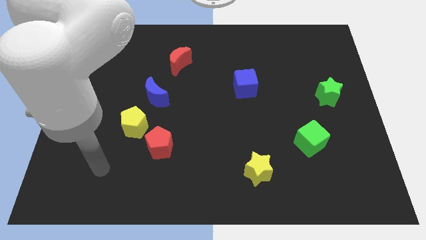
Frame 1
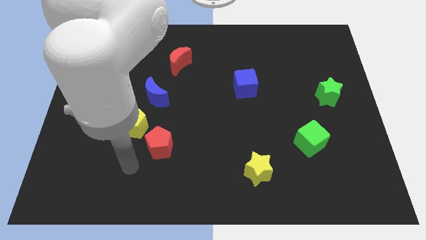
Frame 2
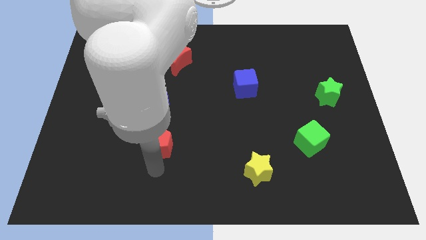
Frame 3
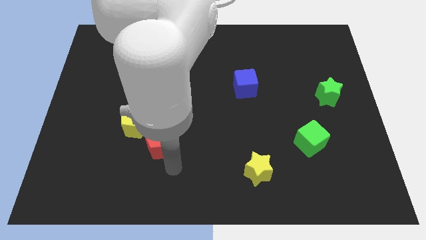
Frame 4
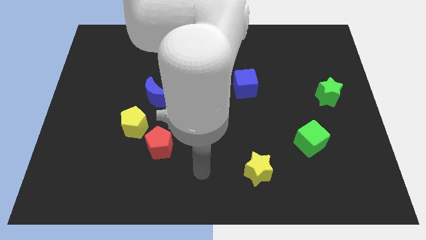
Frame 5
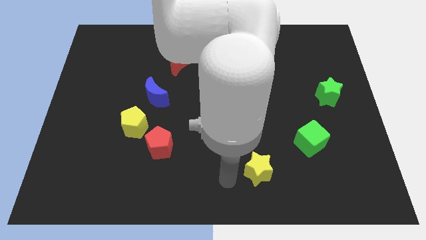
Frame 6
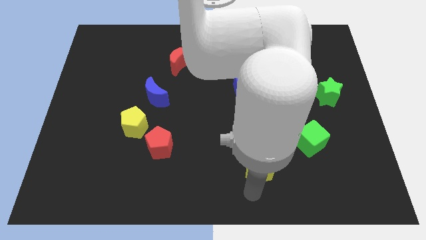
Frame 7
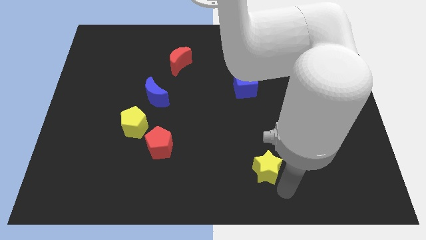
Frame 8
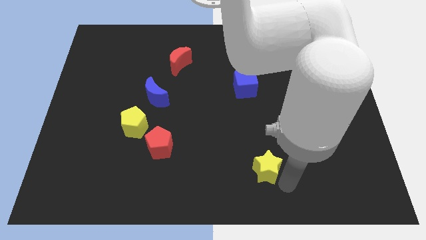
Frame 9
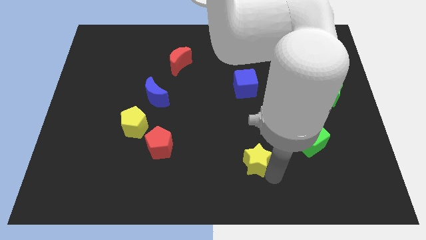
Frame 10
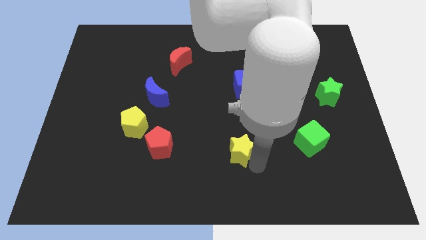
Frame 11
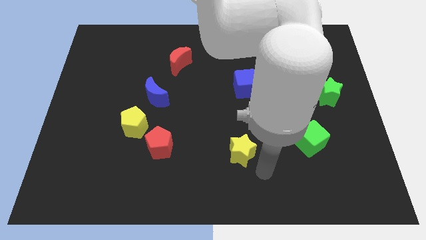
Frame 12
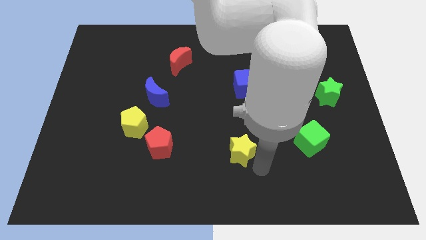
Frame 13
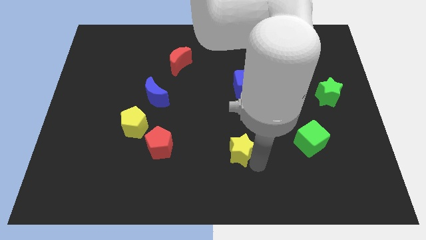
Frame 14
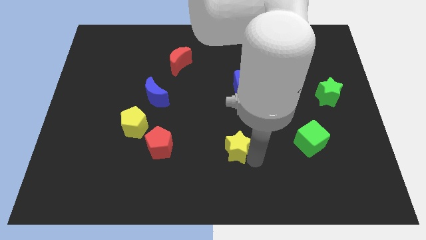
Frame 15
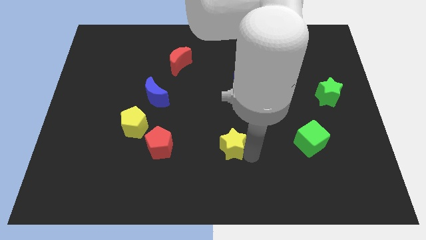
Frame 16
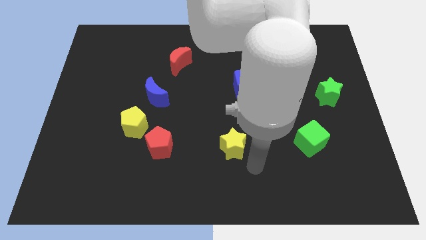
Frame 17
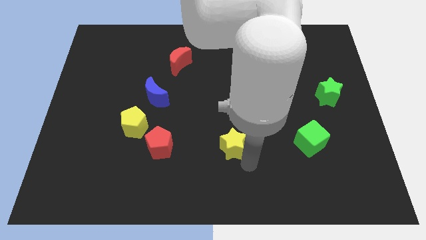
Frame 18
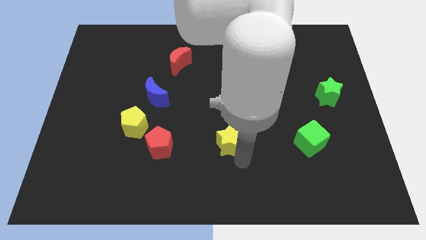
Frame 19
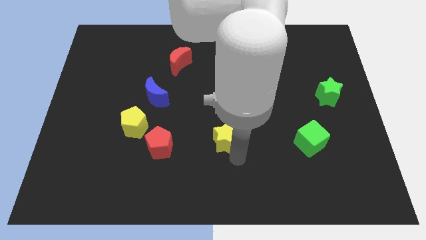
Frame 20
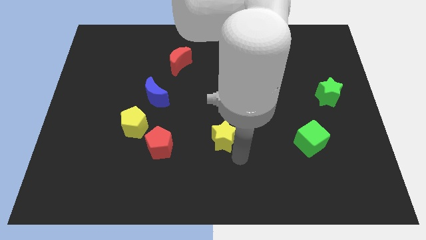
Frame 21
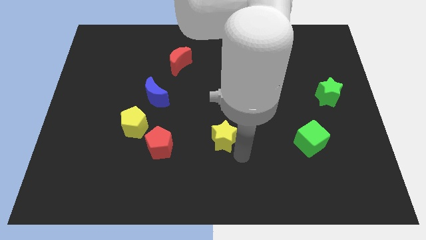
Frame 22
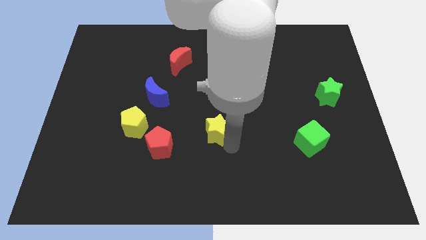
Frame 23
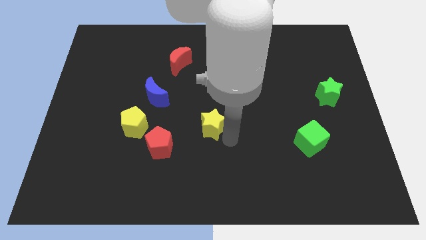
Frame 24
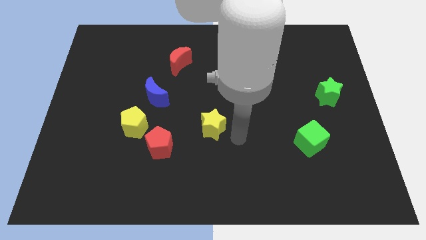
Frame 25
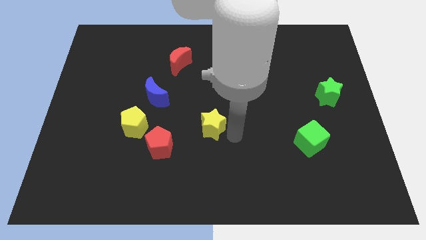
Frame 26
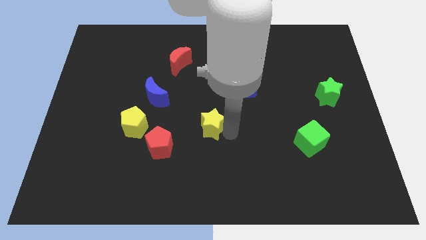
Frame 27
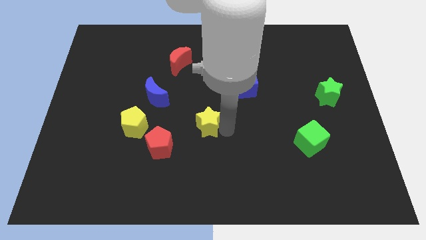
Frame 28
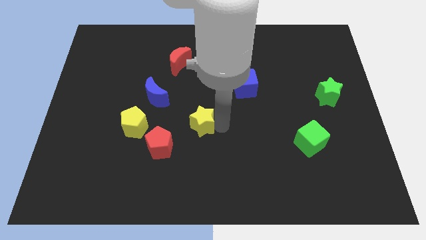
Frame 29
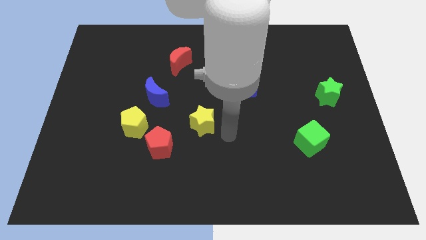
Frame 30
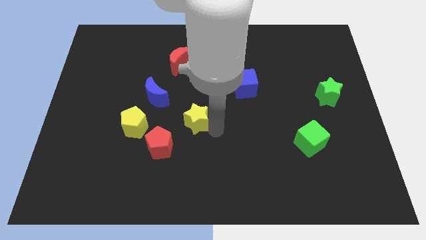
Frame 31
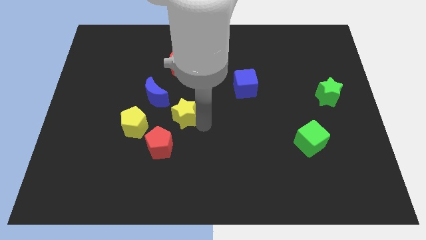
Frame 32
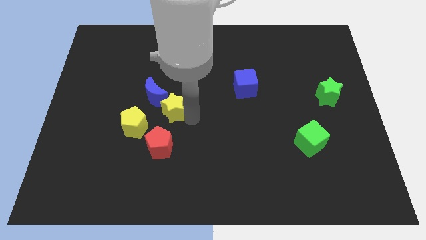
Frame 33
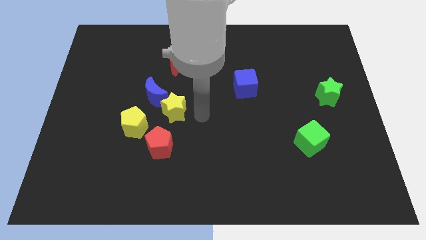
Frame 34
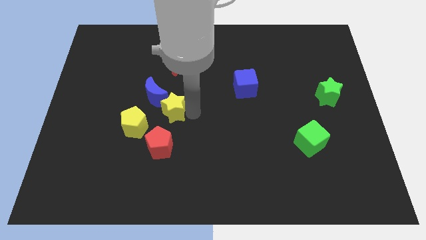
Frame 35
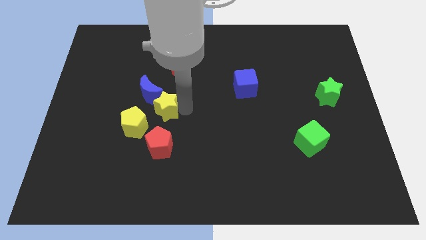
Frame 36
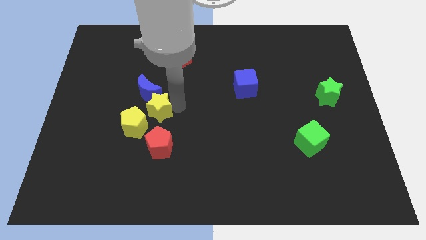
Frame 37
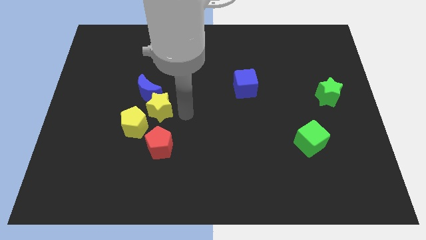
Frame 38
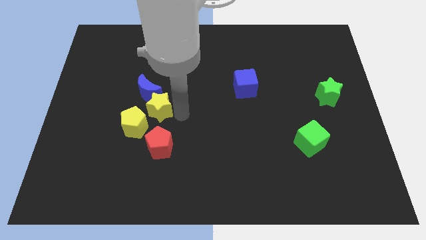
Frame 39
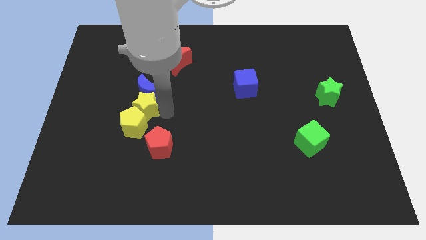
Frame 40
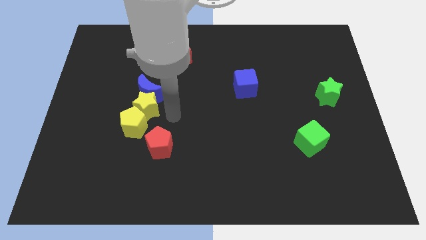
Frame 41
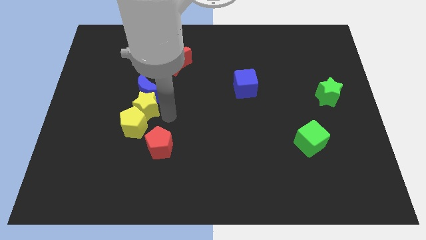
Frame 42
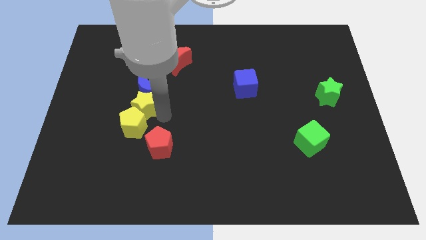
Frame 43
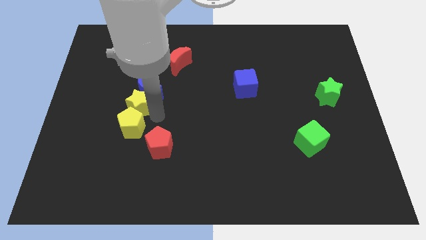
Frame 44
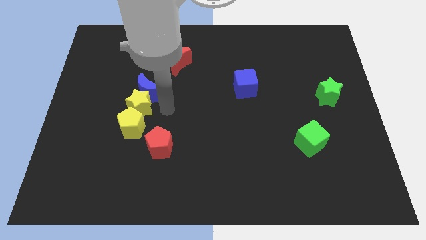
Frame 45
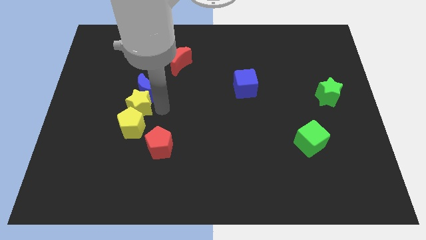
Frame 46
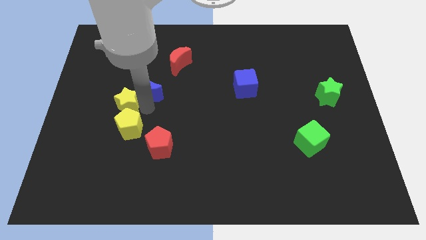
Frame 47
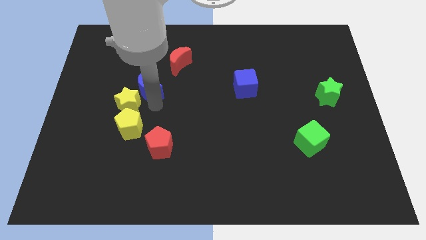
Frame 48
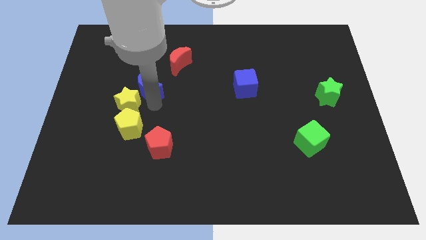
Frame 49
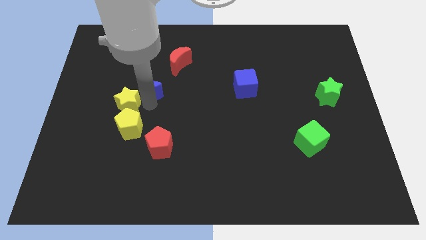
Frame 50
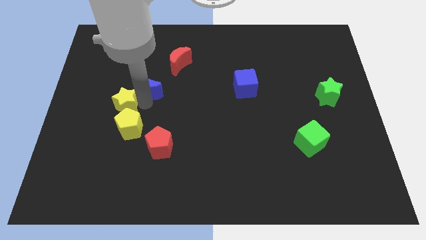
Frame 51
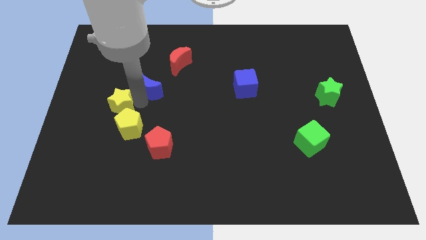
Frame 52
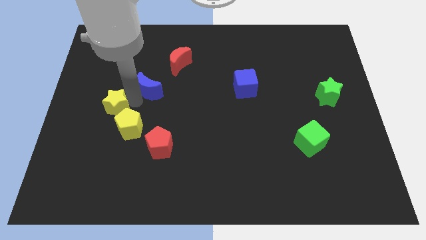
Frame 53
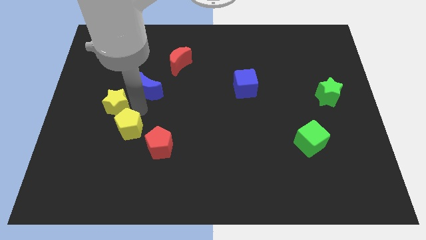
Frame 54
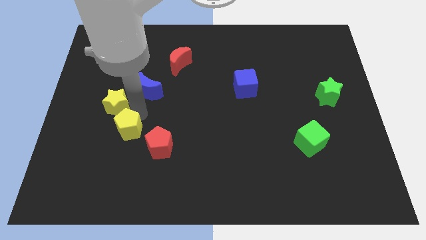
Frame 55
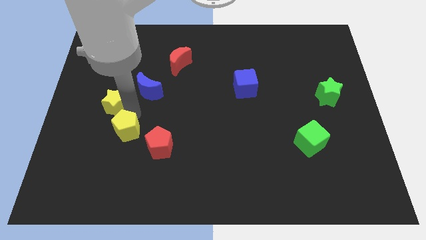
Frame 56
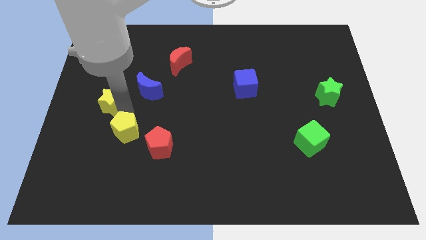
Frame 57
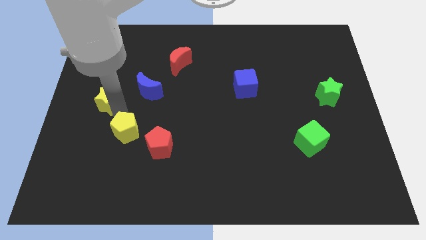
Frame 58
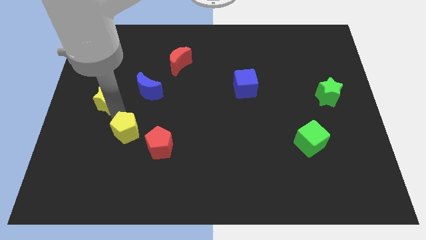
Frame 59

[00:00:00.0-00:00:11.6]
put the yellow star to the center left
